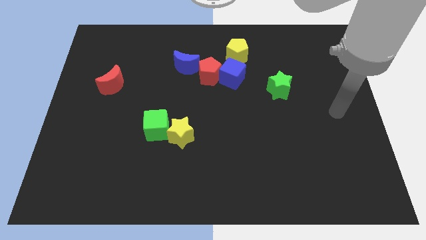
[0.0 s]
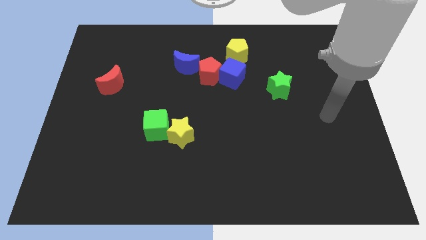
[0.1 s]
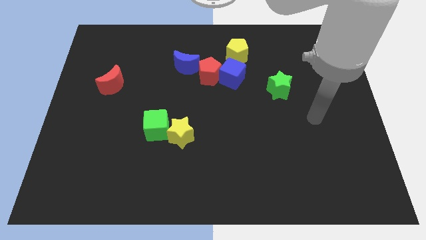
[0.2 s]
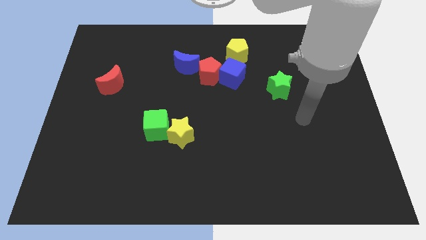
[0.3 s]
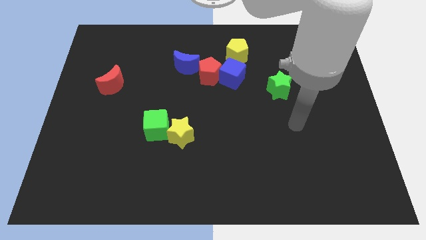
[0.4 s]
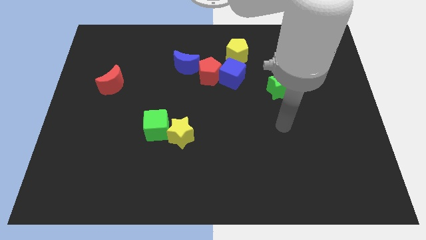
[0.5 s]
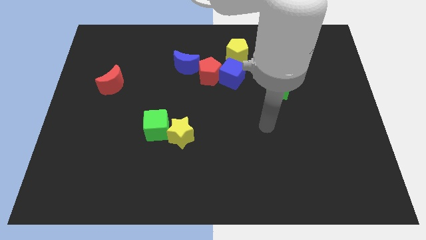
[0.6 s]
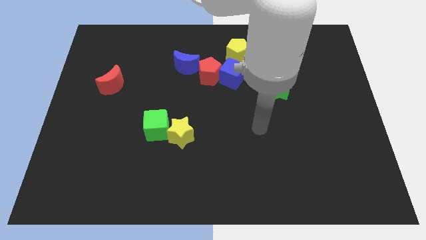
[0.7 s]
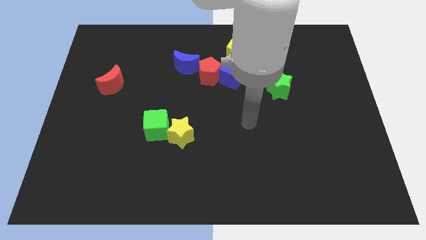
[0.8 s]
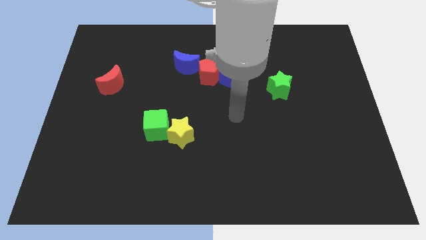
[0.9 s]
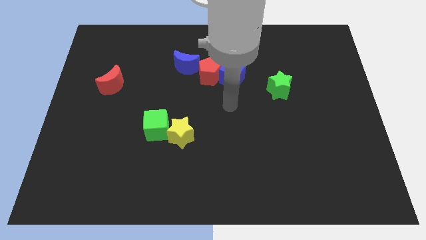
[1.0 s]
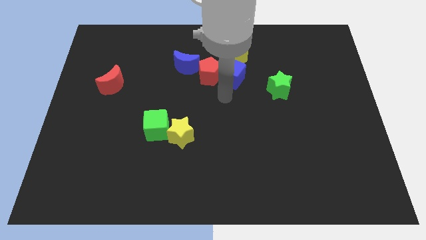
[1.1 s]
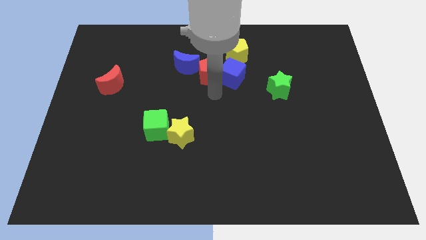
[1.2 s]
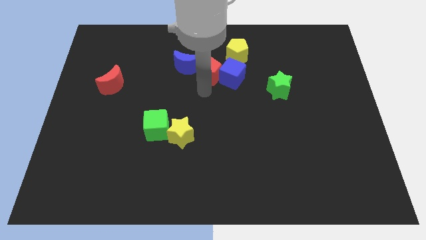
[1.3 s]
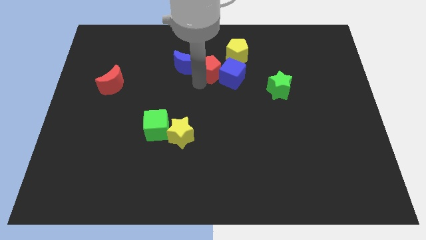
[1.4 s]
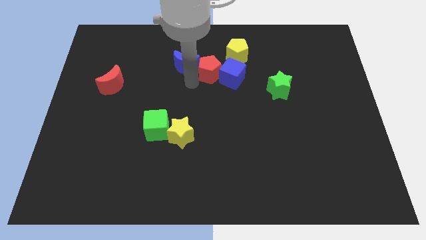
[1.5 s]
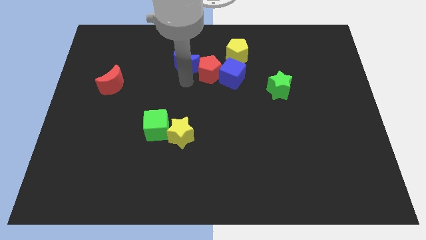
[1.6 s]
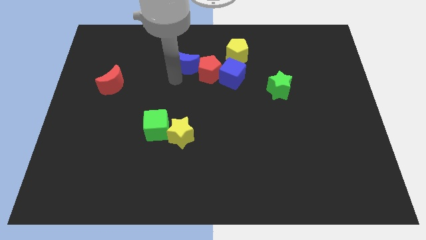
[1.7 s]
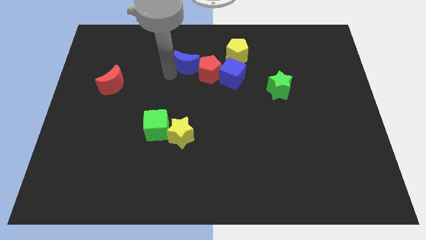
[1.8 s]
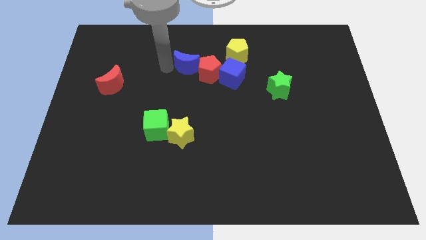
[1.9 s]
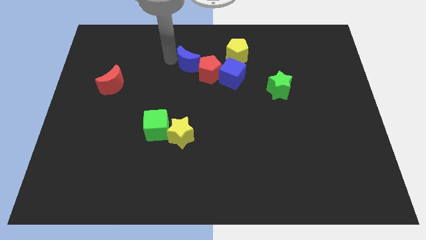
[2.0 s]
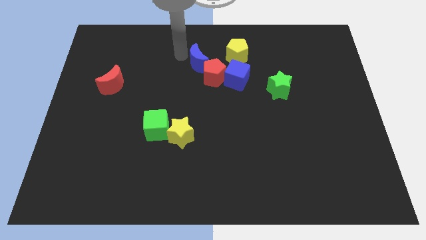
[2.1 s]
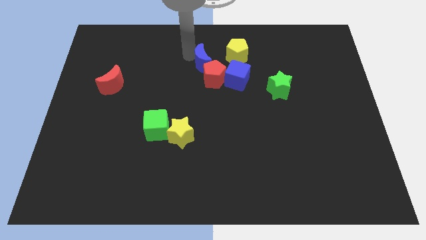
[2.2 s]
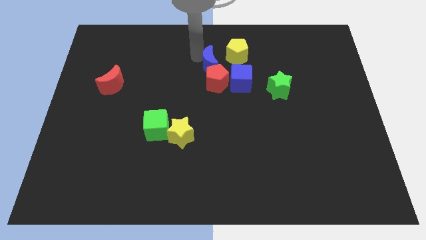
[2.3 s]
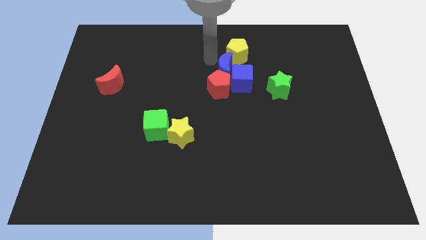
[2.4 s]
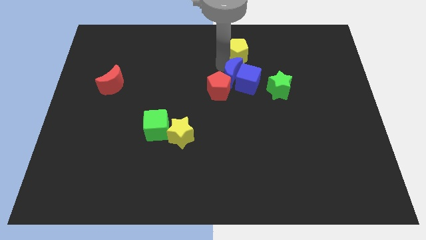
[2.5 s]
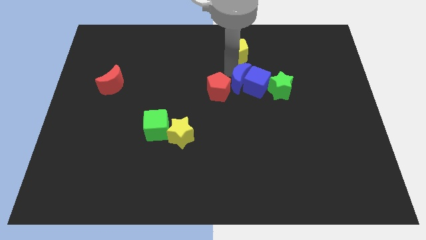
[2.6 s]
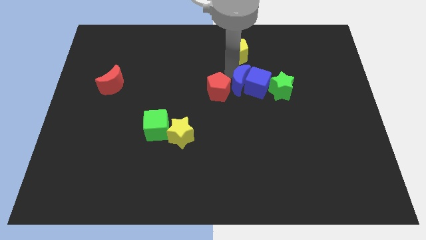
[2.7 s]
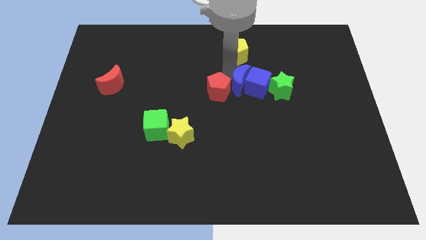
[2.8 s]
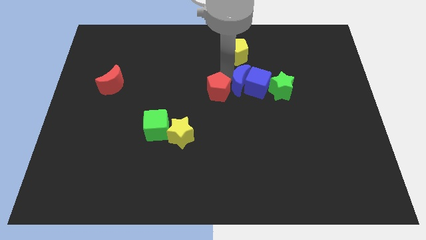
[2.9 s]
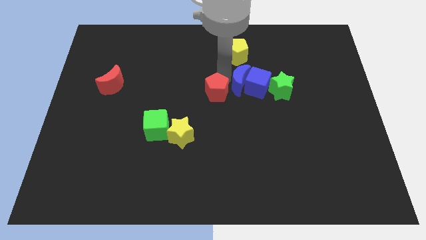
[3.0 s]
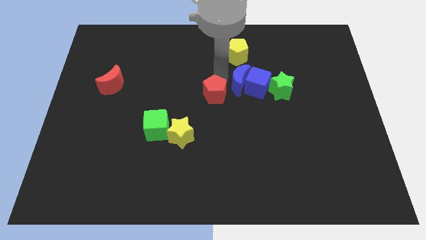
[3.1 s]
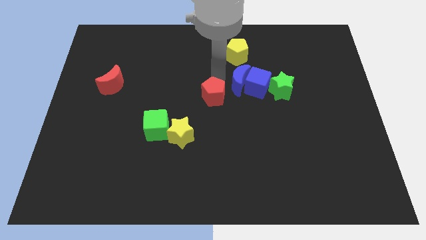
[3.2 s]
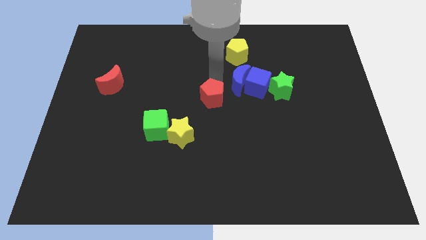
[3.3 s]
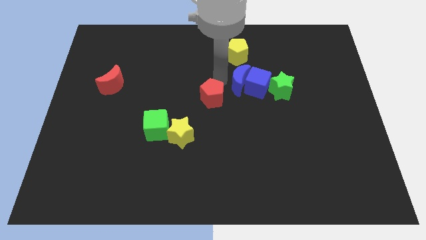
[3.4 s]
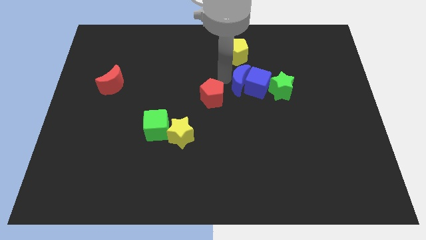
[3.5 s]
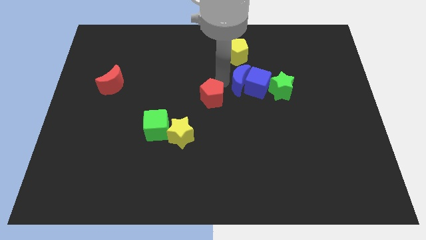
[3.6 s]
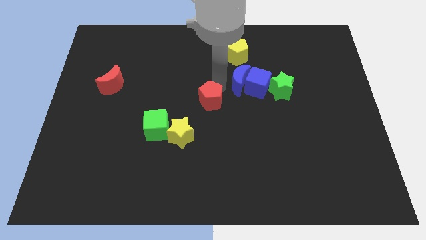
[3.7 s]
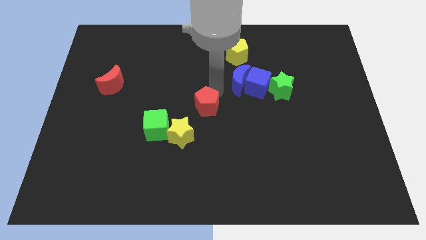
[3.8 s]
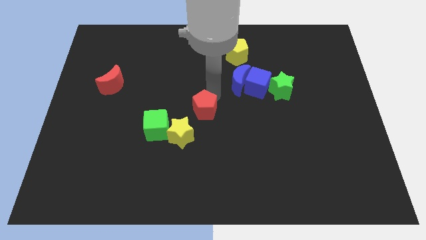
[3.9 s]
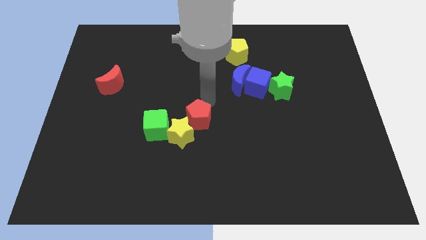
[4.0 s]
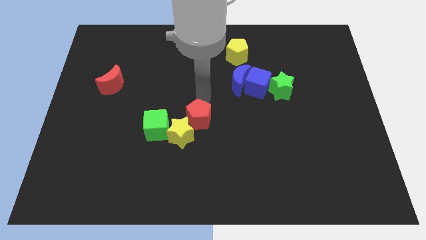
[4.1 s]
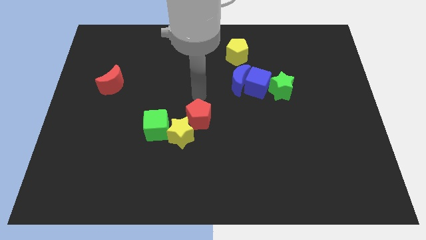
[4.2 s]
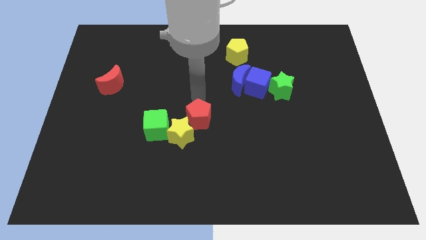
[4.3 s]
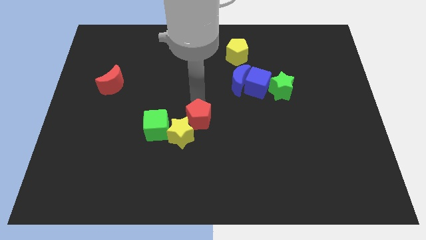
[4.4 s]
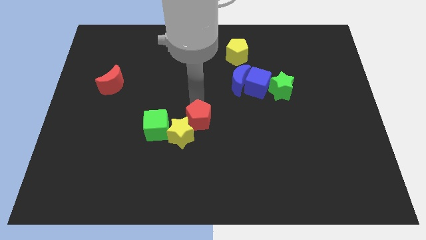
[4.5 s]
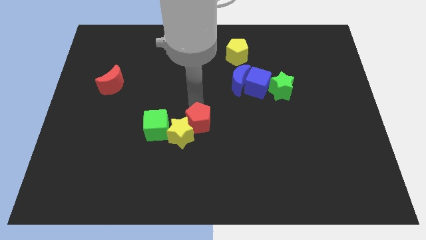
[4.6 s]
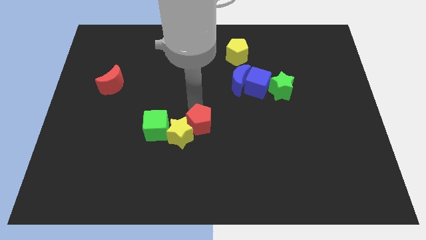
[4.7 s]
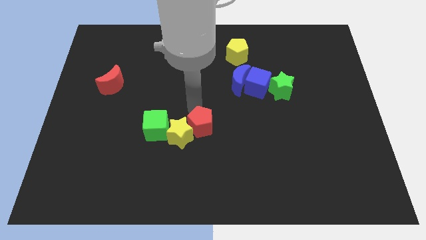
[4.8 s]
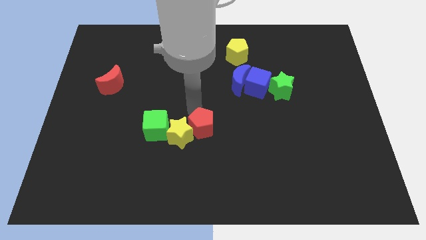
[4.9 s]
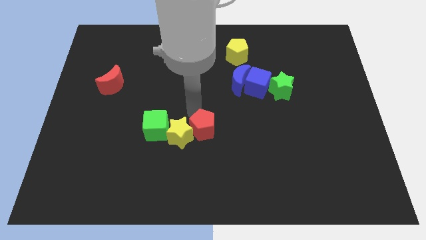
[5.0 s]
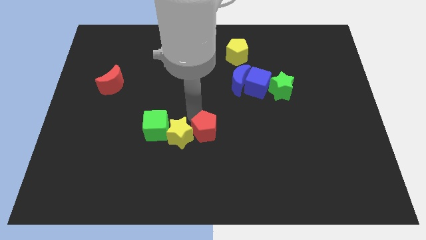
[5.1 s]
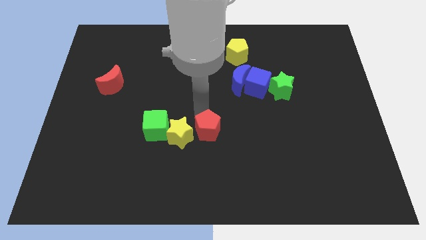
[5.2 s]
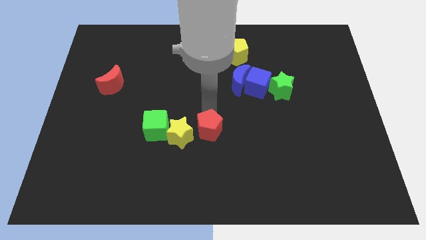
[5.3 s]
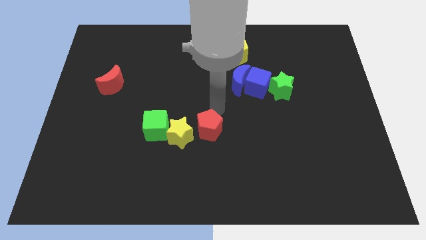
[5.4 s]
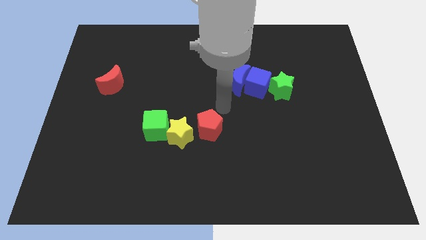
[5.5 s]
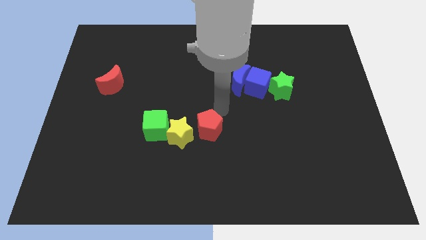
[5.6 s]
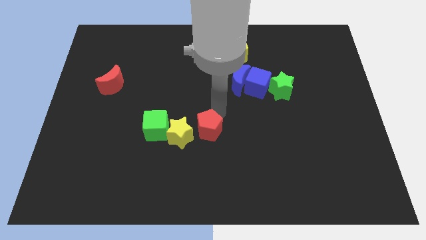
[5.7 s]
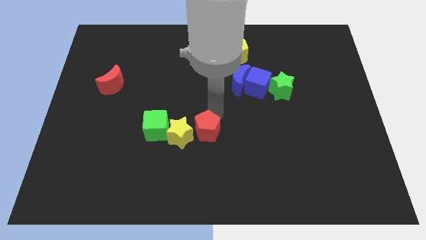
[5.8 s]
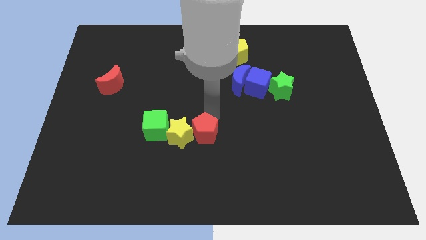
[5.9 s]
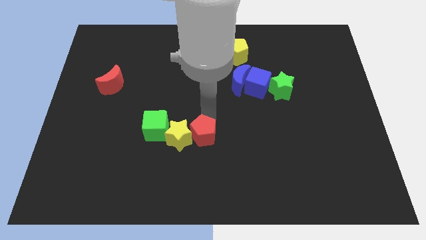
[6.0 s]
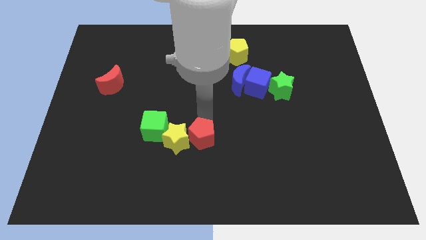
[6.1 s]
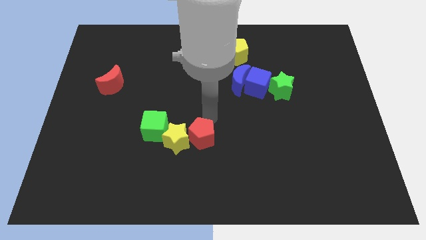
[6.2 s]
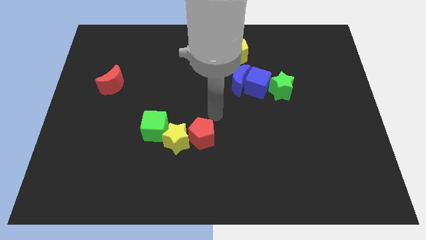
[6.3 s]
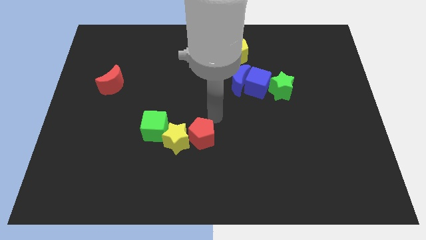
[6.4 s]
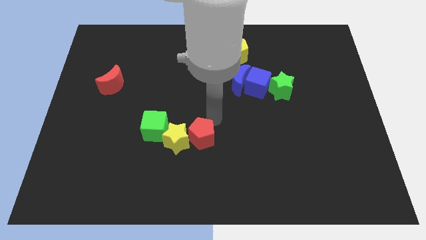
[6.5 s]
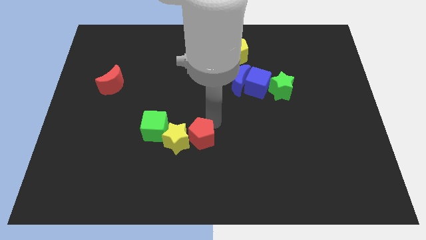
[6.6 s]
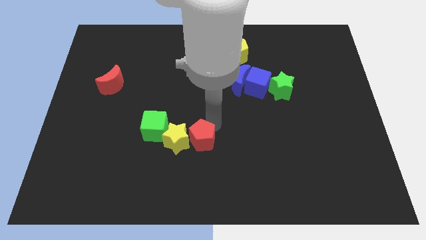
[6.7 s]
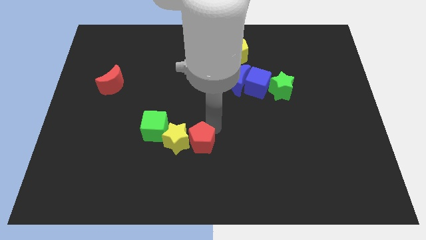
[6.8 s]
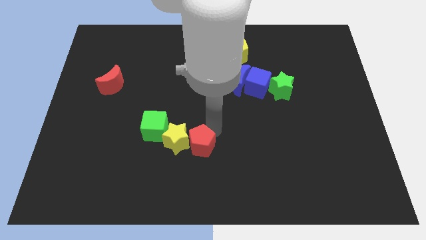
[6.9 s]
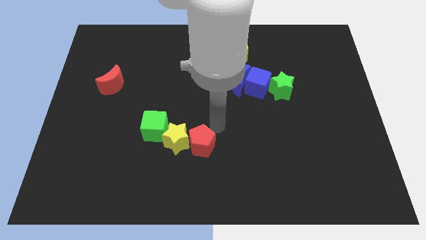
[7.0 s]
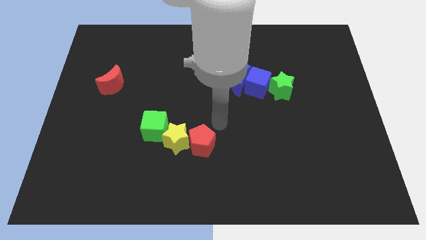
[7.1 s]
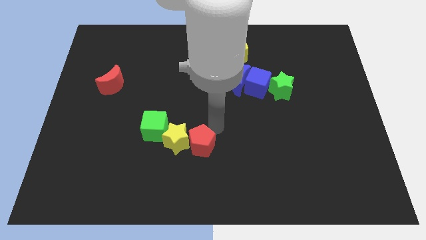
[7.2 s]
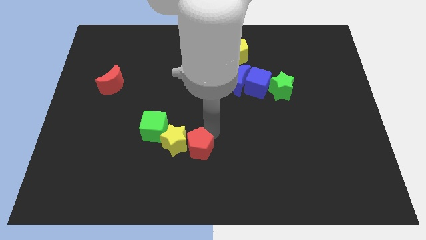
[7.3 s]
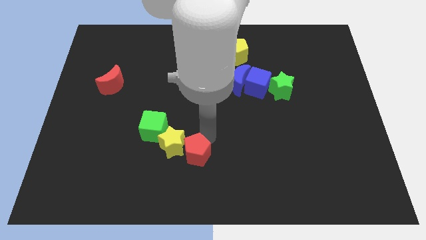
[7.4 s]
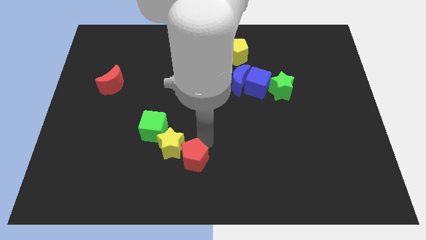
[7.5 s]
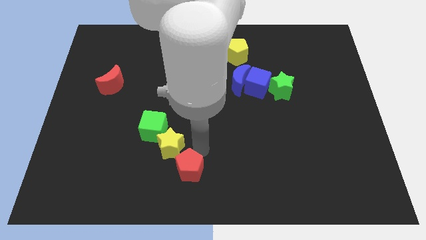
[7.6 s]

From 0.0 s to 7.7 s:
put the red pentagon to the bottom side of the yellow star
